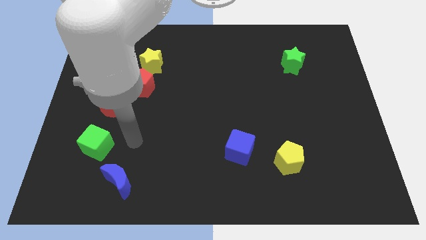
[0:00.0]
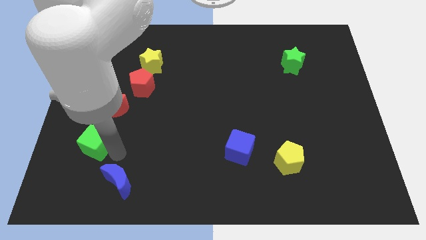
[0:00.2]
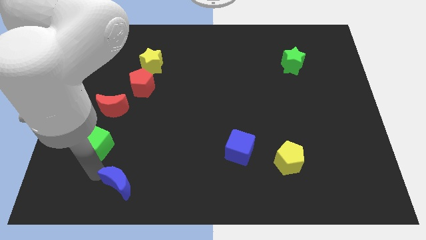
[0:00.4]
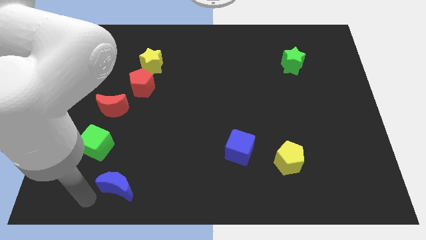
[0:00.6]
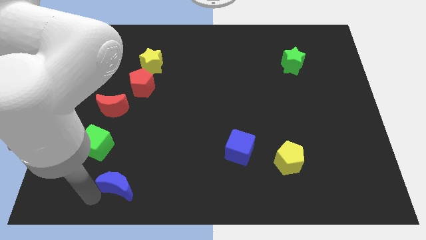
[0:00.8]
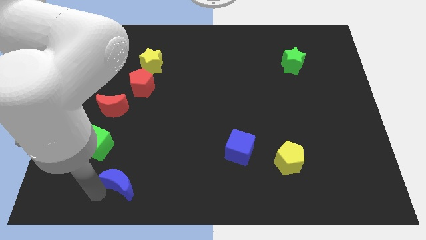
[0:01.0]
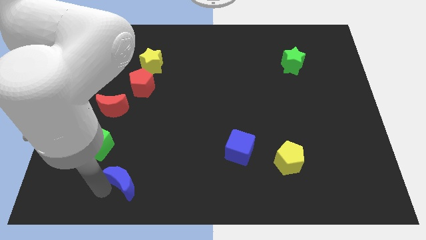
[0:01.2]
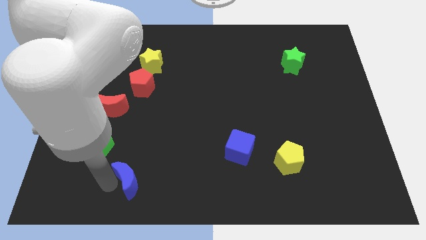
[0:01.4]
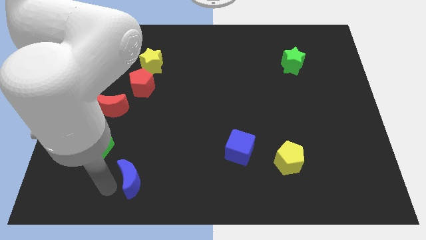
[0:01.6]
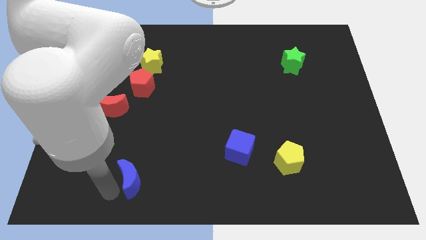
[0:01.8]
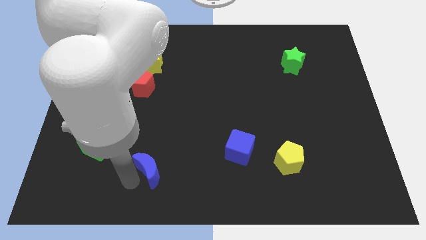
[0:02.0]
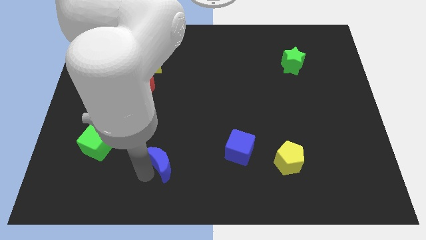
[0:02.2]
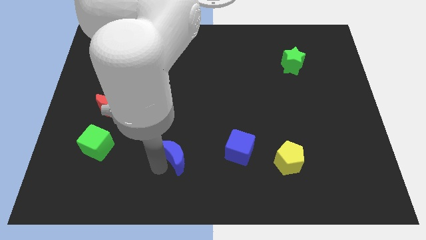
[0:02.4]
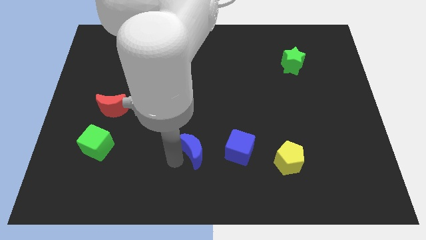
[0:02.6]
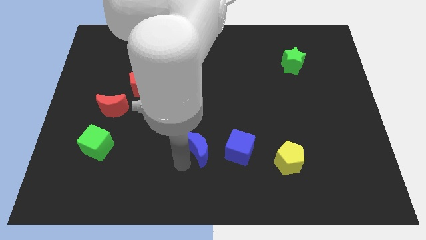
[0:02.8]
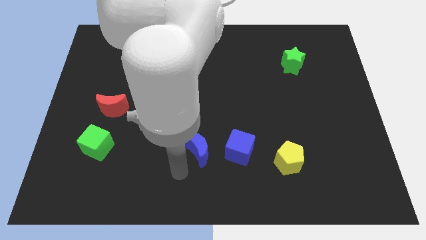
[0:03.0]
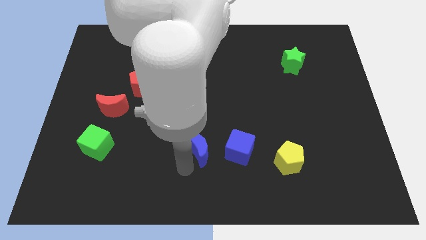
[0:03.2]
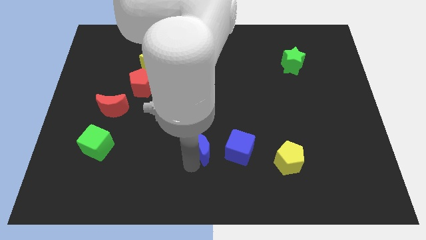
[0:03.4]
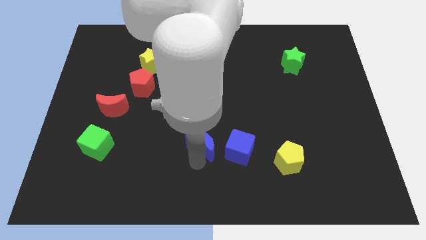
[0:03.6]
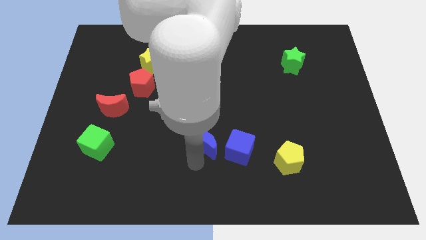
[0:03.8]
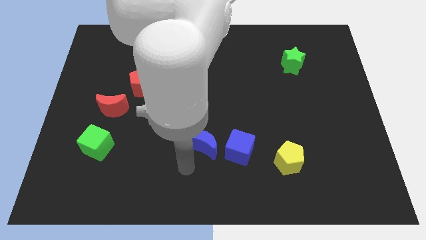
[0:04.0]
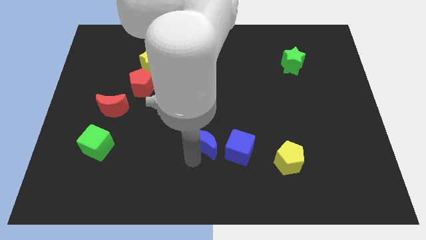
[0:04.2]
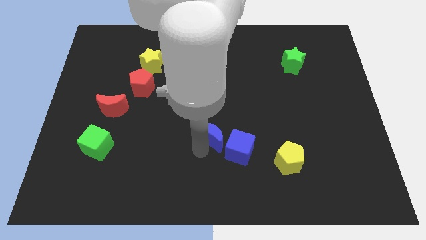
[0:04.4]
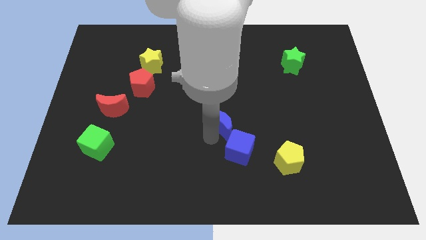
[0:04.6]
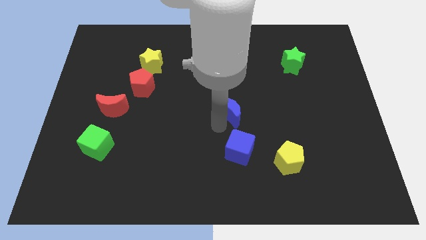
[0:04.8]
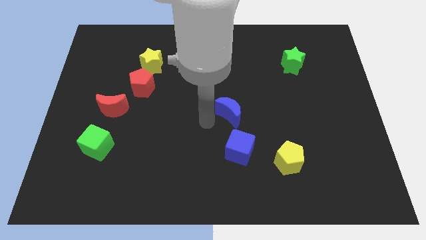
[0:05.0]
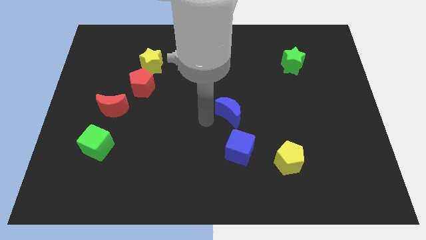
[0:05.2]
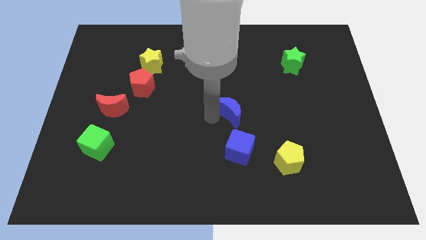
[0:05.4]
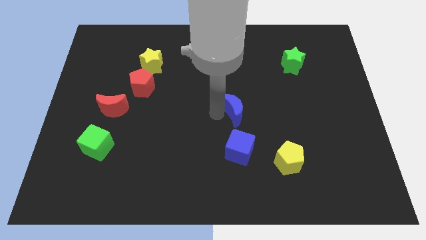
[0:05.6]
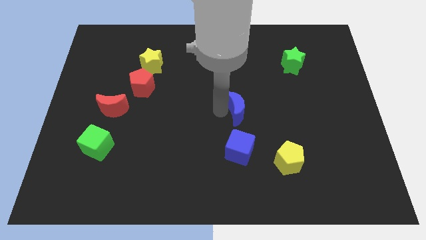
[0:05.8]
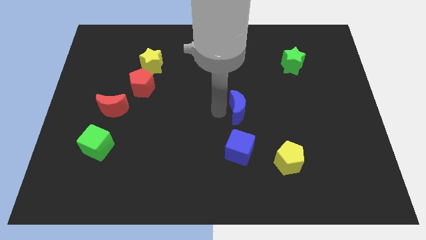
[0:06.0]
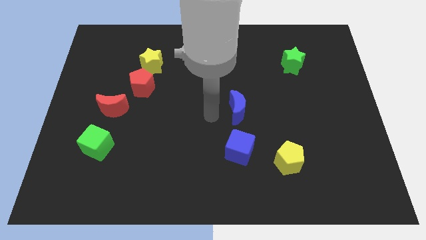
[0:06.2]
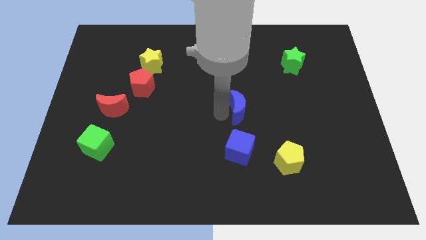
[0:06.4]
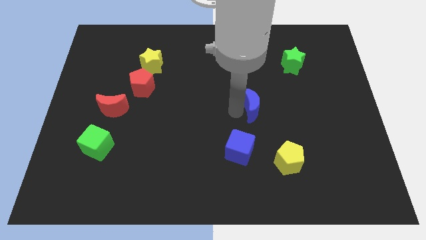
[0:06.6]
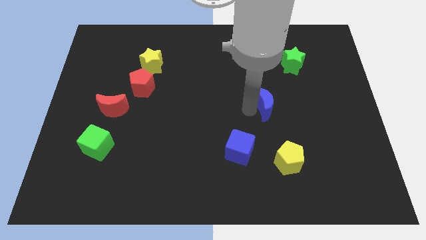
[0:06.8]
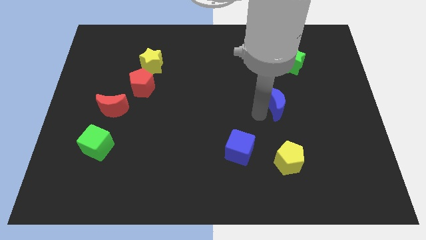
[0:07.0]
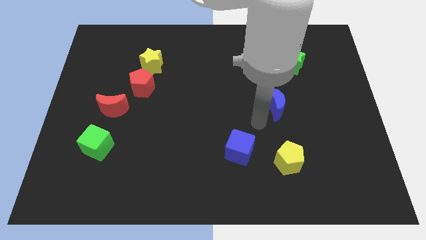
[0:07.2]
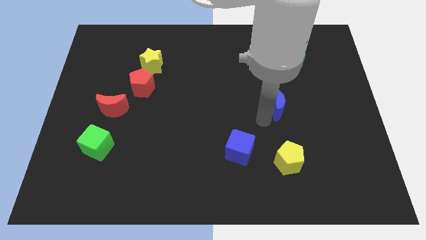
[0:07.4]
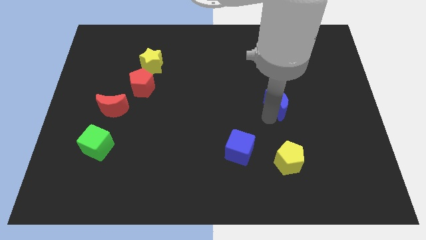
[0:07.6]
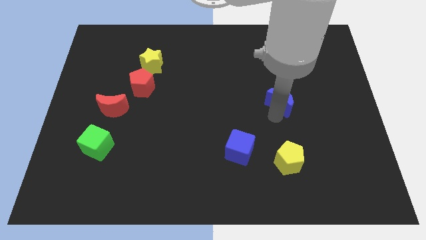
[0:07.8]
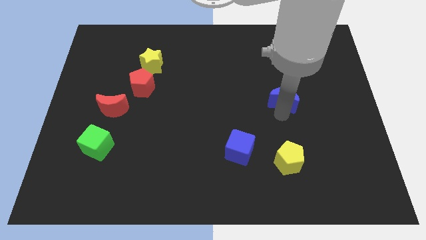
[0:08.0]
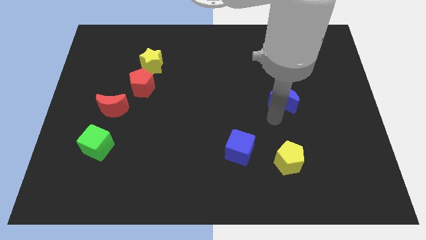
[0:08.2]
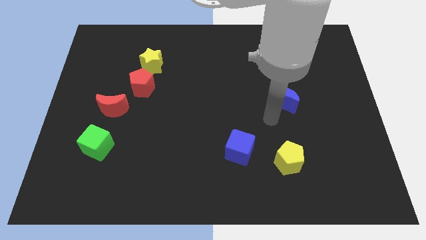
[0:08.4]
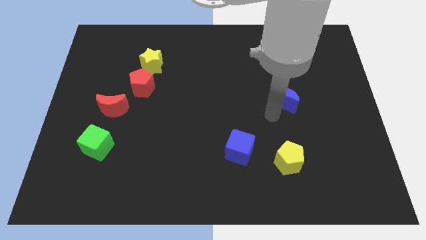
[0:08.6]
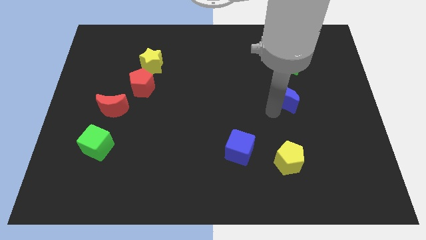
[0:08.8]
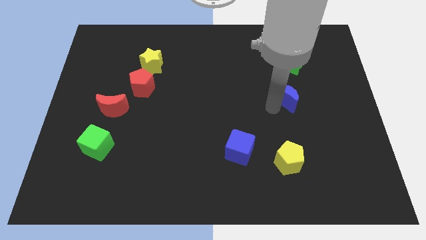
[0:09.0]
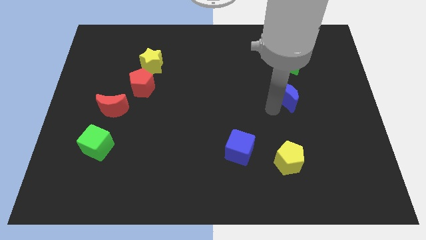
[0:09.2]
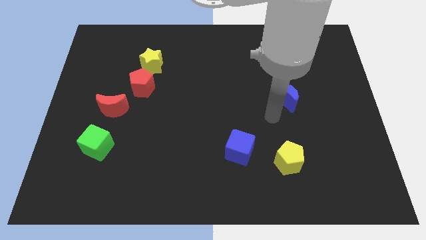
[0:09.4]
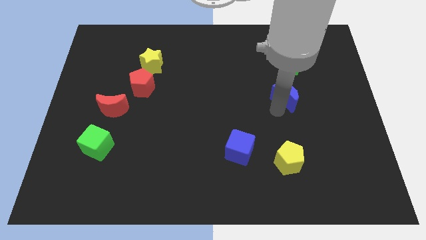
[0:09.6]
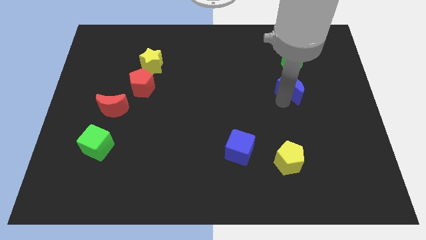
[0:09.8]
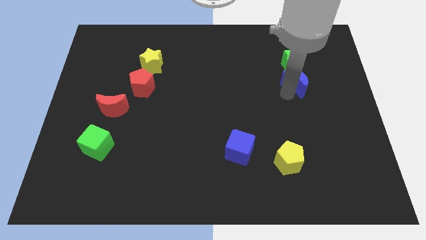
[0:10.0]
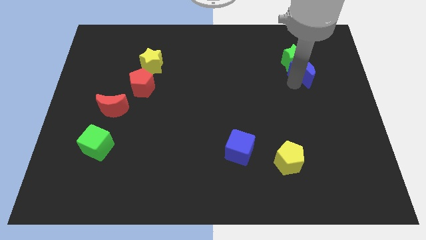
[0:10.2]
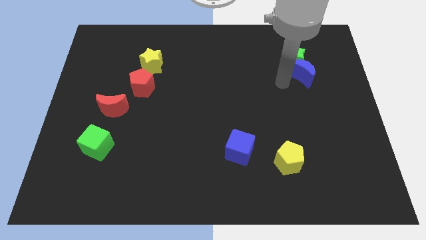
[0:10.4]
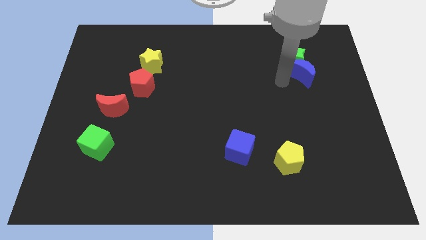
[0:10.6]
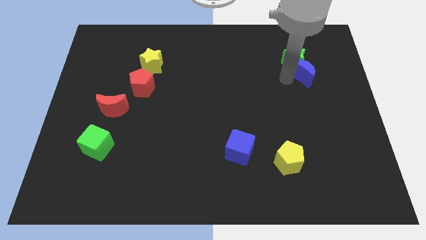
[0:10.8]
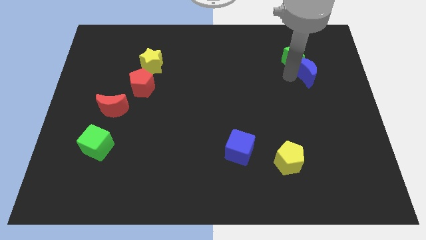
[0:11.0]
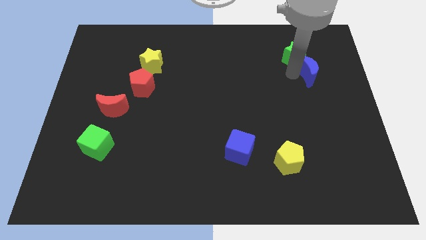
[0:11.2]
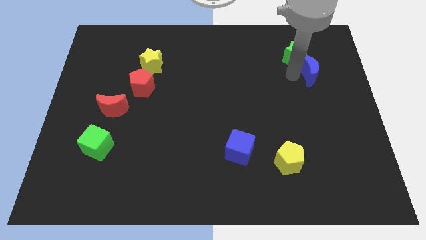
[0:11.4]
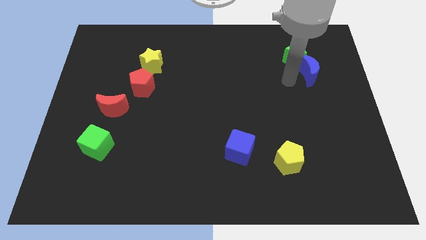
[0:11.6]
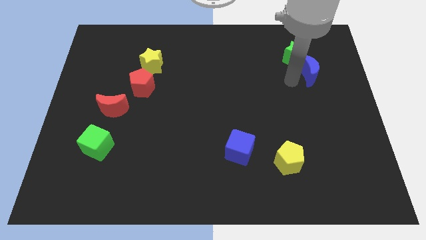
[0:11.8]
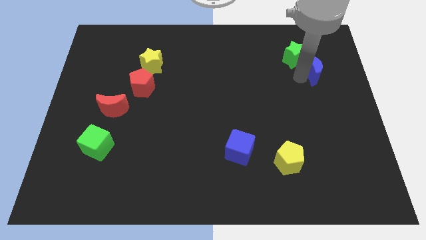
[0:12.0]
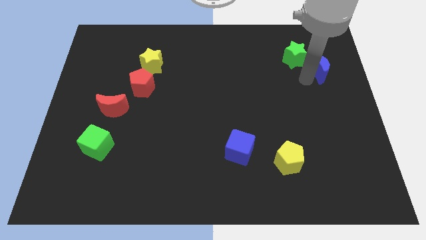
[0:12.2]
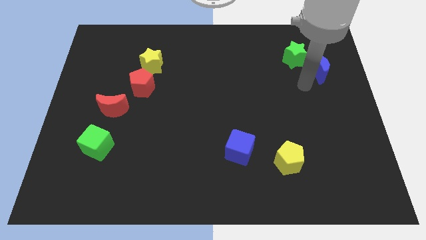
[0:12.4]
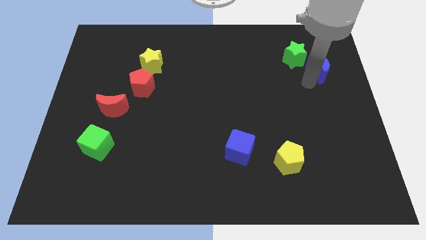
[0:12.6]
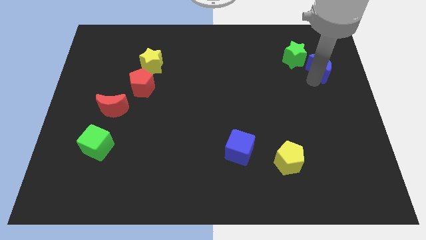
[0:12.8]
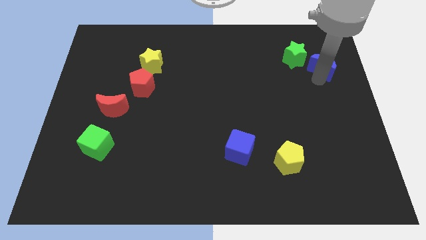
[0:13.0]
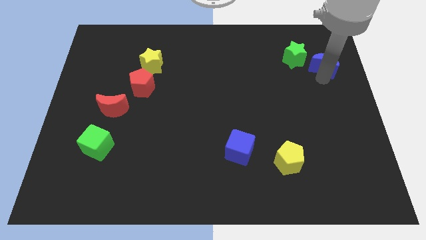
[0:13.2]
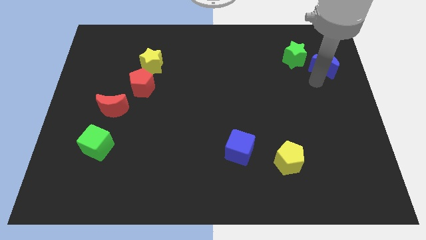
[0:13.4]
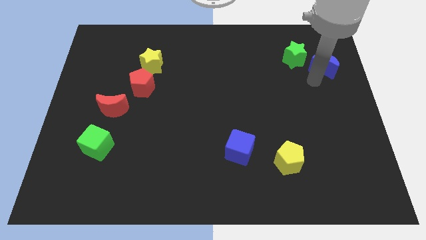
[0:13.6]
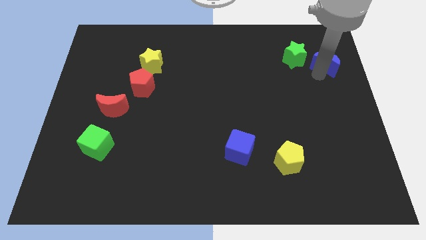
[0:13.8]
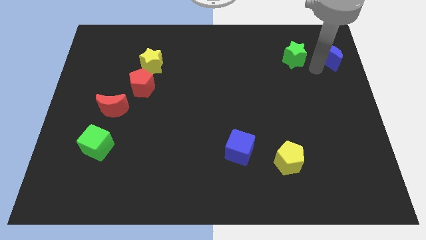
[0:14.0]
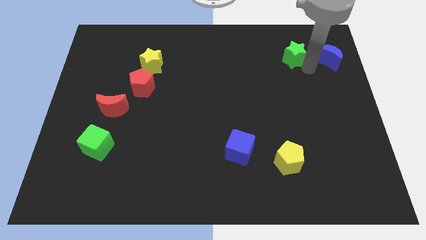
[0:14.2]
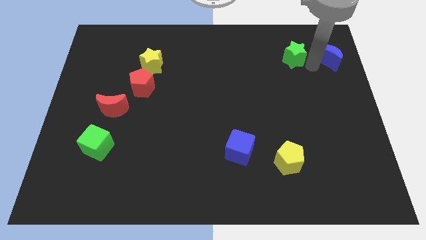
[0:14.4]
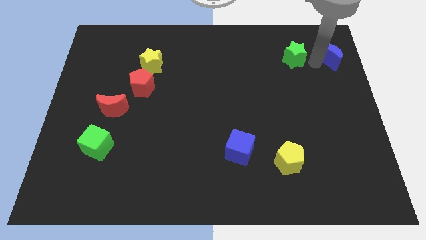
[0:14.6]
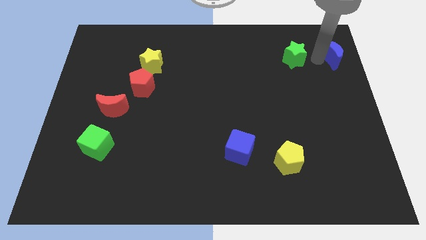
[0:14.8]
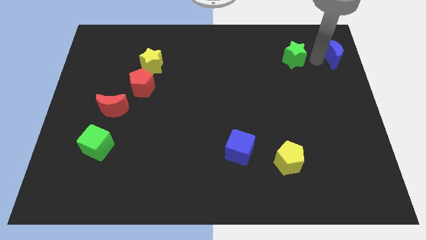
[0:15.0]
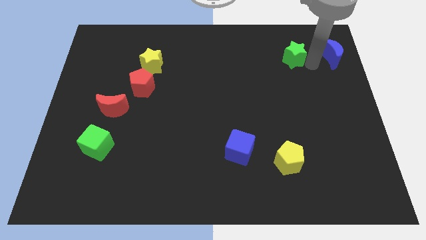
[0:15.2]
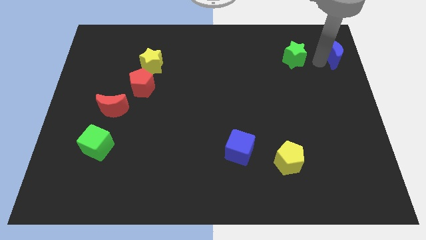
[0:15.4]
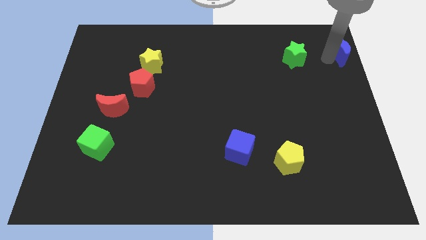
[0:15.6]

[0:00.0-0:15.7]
slide the blue moon to the upper right corner
